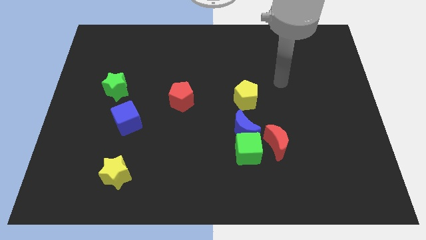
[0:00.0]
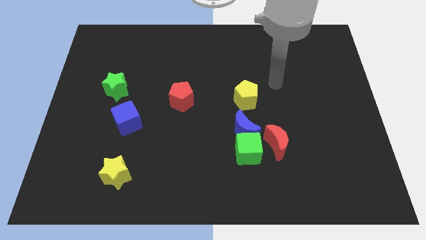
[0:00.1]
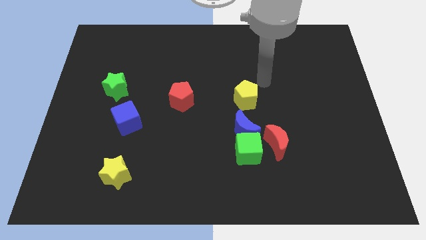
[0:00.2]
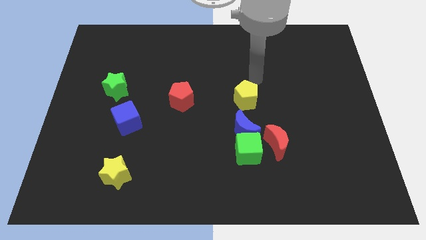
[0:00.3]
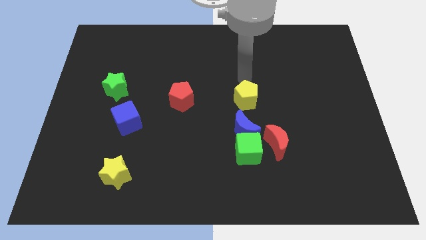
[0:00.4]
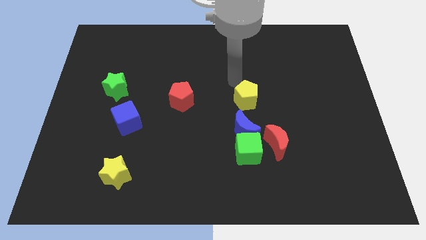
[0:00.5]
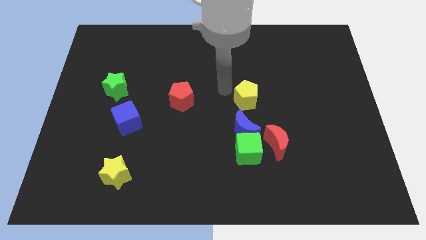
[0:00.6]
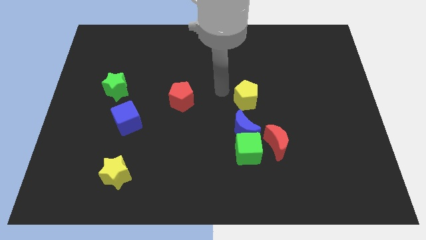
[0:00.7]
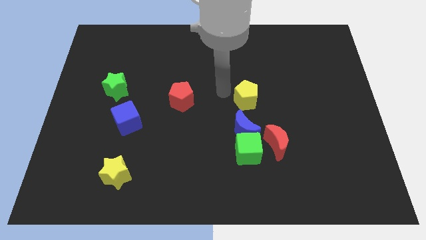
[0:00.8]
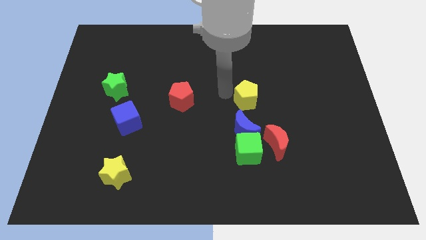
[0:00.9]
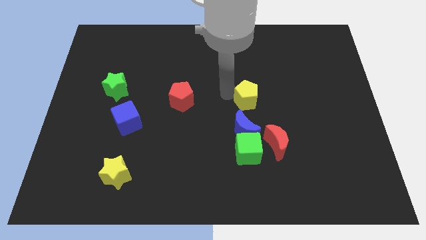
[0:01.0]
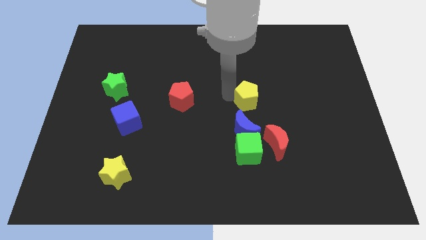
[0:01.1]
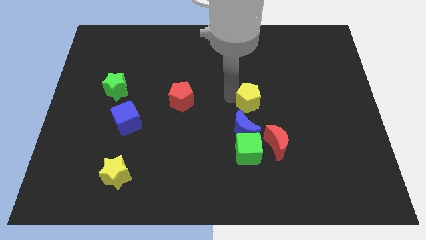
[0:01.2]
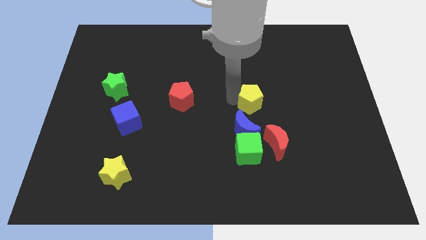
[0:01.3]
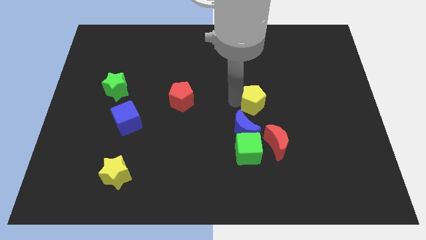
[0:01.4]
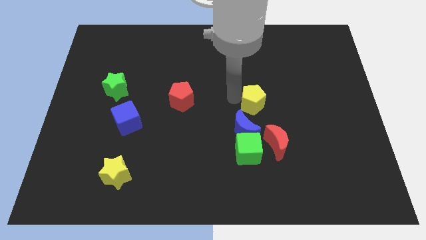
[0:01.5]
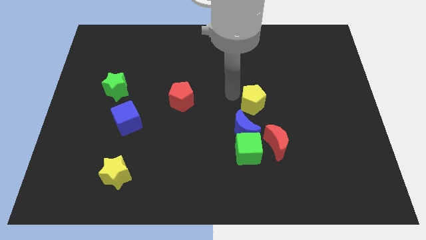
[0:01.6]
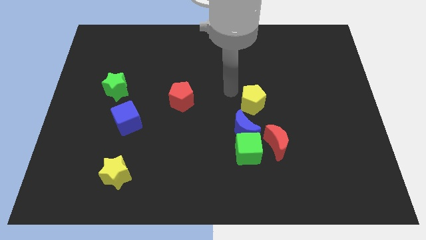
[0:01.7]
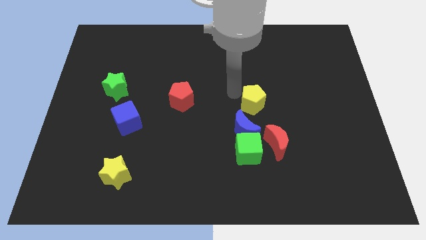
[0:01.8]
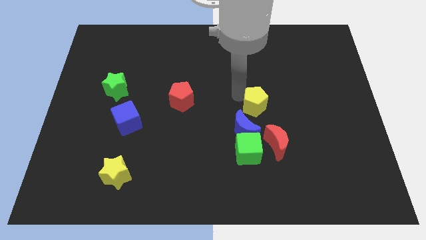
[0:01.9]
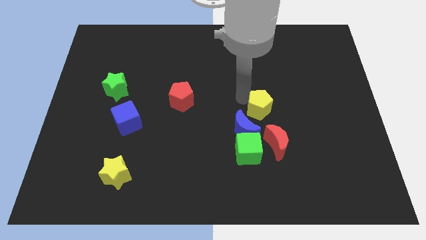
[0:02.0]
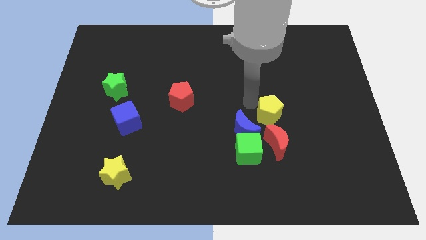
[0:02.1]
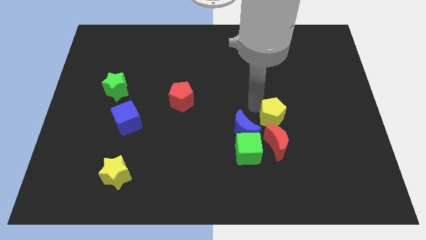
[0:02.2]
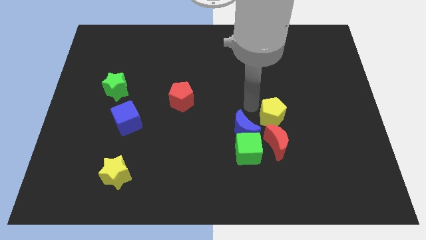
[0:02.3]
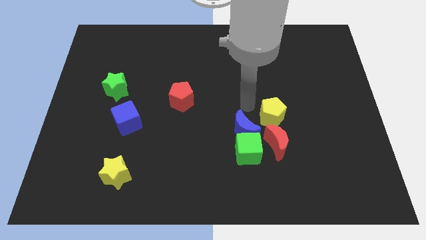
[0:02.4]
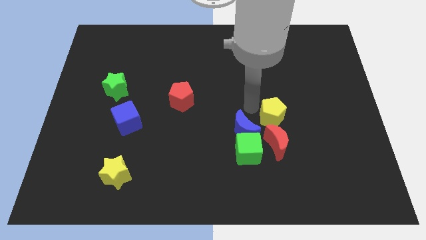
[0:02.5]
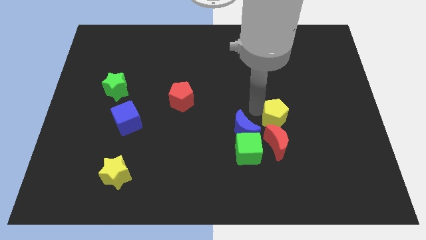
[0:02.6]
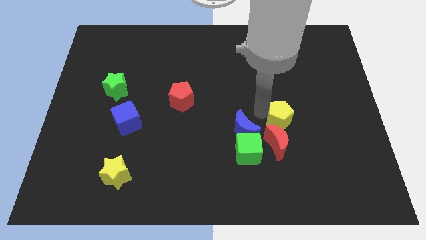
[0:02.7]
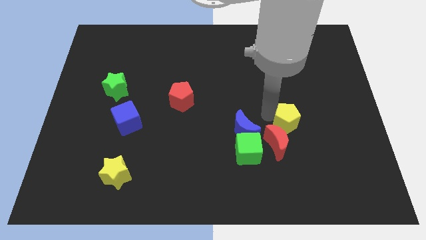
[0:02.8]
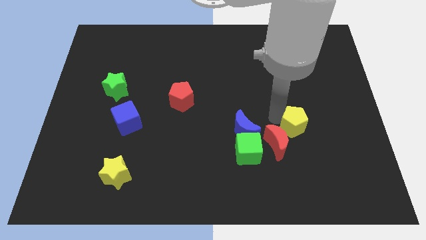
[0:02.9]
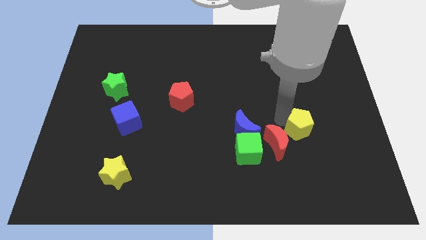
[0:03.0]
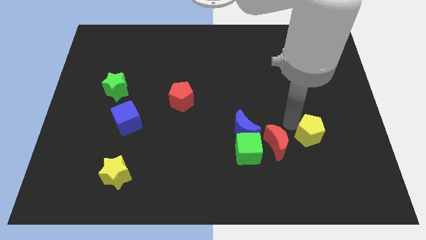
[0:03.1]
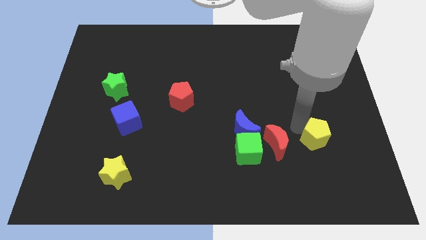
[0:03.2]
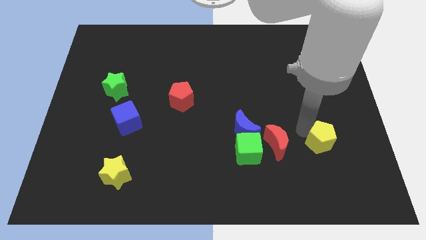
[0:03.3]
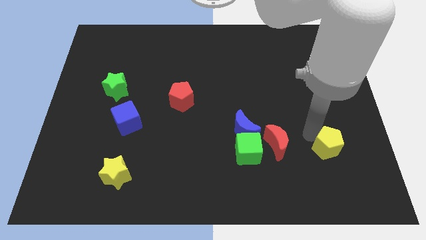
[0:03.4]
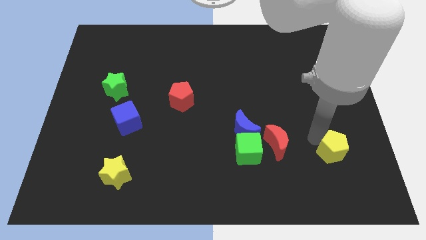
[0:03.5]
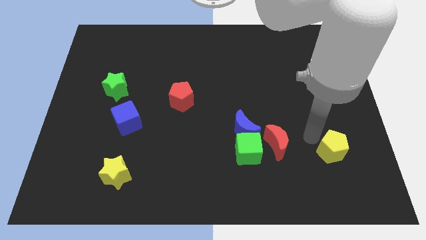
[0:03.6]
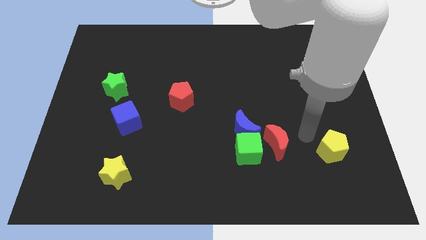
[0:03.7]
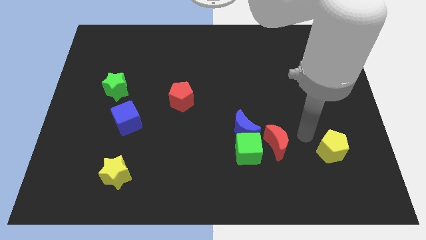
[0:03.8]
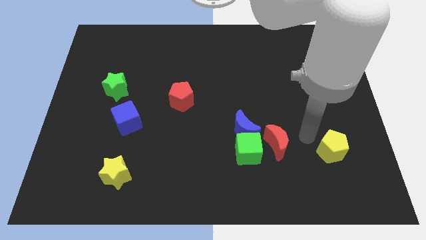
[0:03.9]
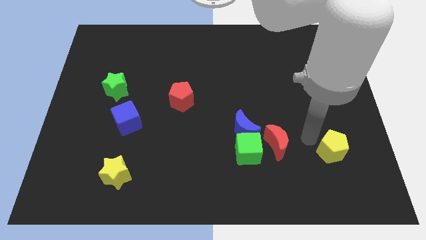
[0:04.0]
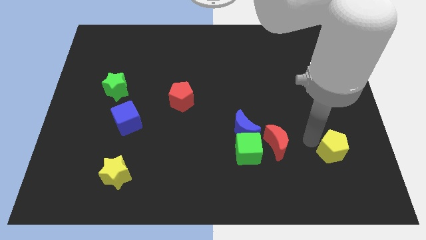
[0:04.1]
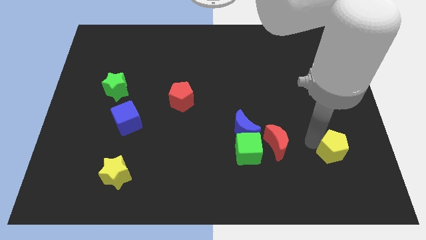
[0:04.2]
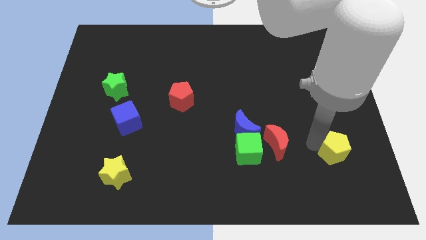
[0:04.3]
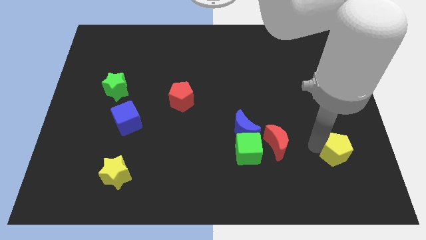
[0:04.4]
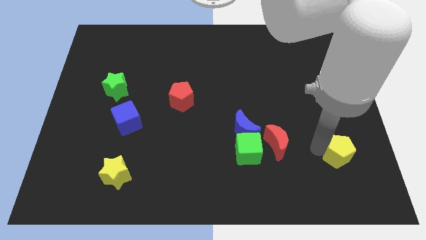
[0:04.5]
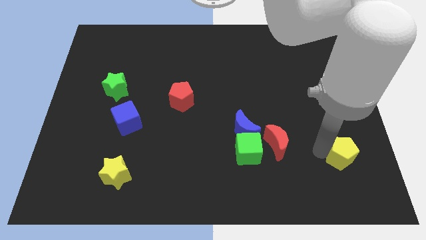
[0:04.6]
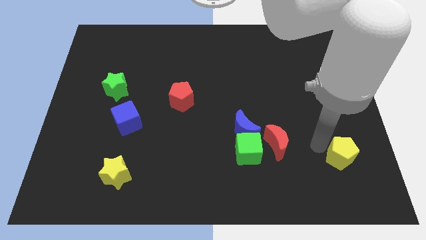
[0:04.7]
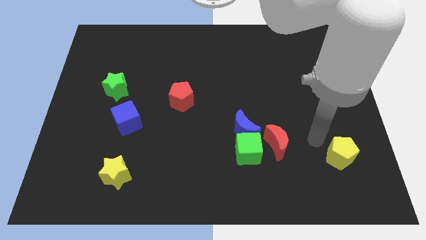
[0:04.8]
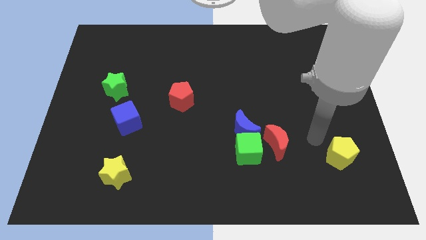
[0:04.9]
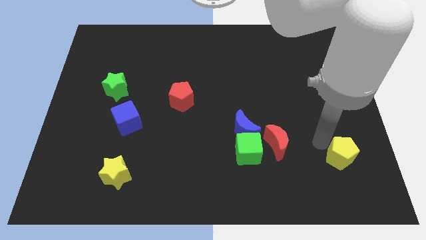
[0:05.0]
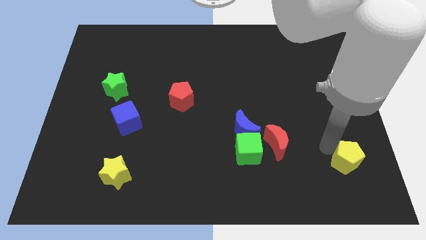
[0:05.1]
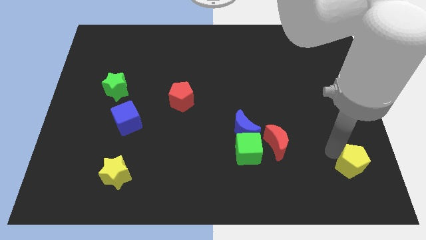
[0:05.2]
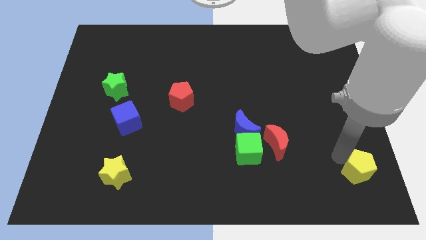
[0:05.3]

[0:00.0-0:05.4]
put the yellow pentagon to the bottom right corner

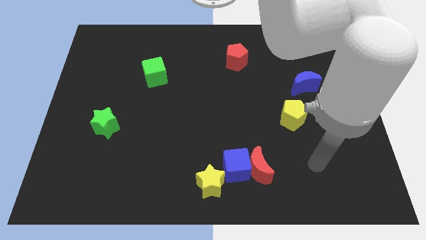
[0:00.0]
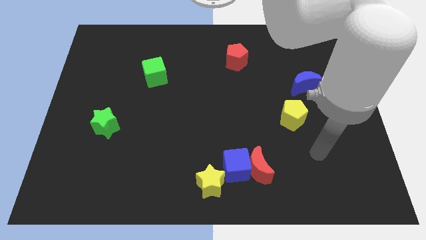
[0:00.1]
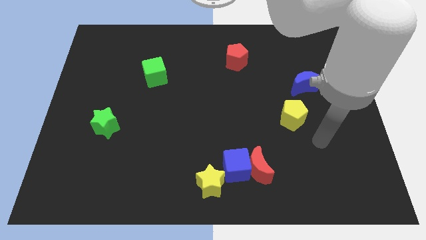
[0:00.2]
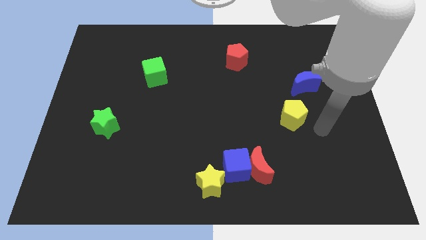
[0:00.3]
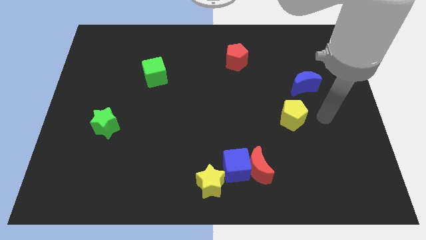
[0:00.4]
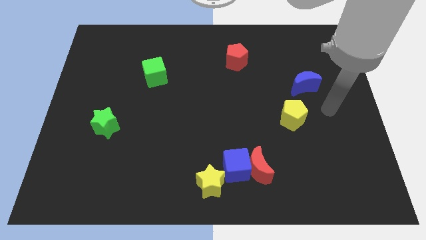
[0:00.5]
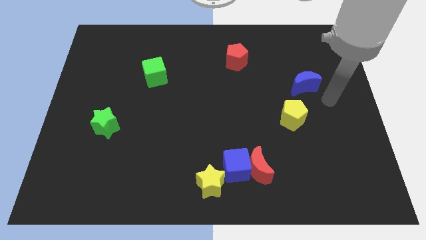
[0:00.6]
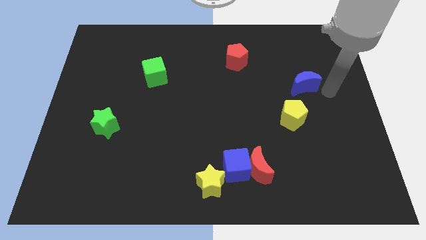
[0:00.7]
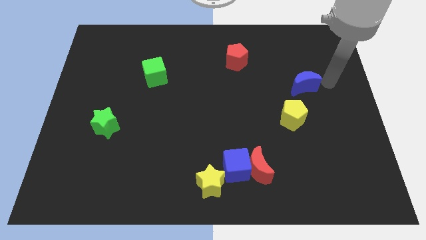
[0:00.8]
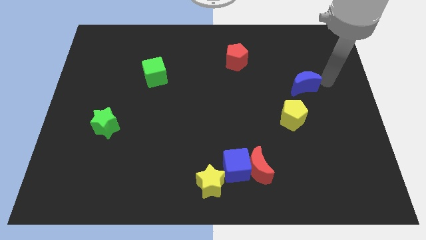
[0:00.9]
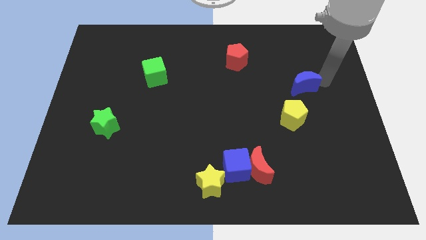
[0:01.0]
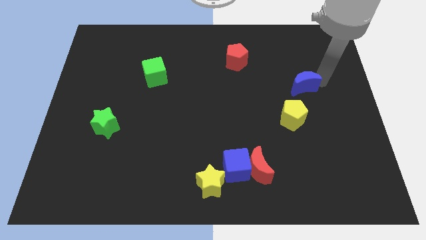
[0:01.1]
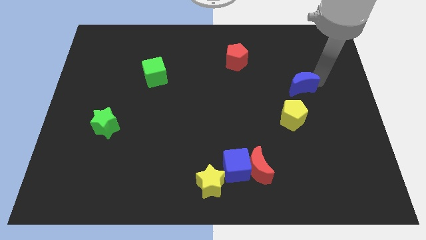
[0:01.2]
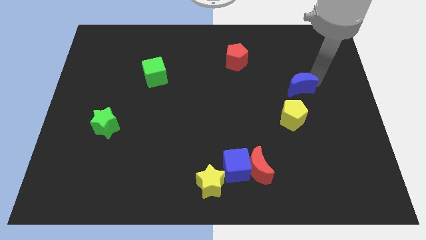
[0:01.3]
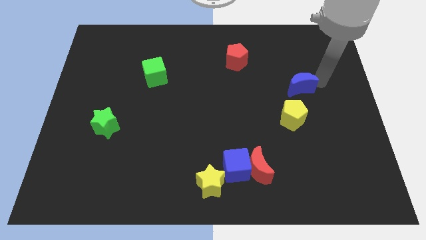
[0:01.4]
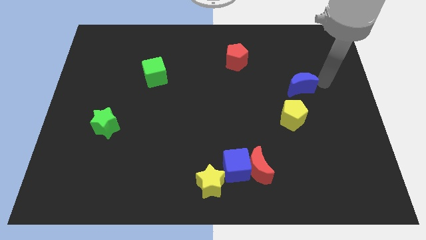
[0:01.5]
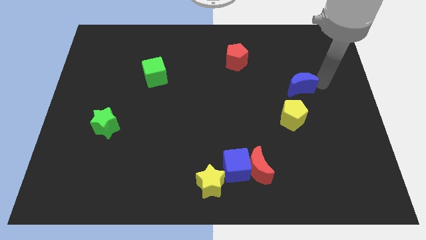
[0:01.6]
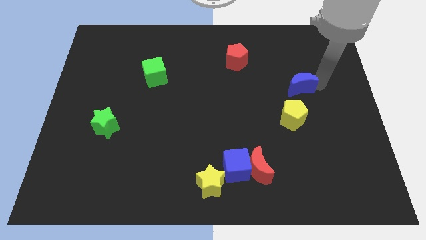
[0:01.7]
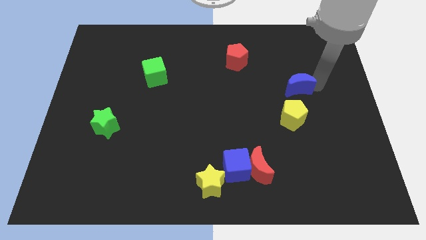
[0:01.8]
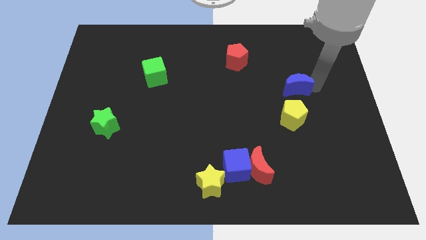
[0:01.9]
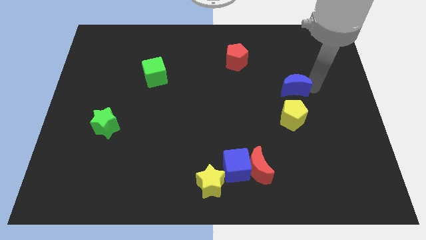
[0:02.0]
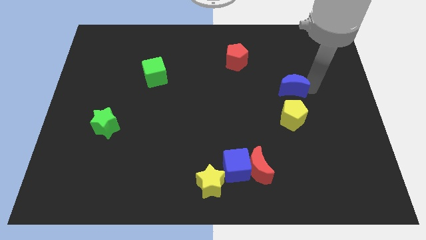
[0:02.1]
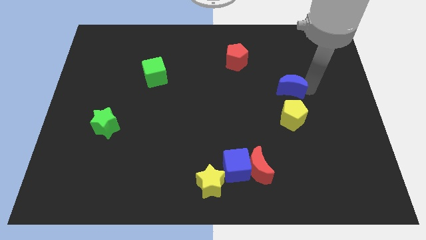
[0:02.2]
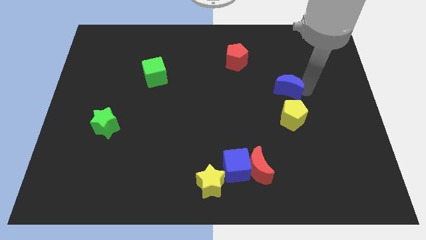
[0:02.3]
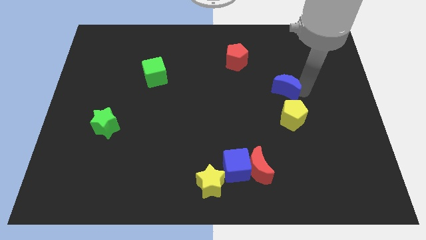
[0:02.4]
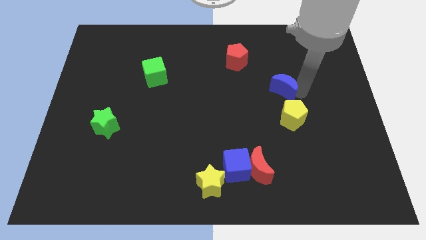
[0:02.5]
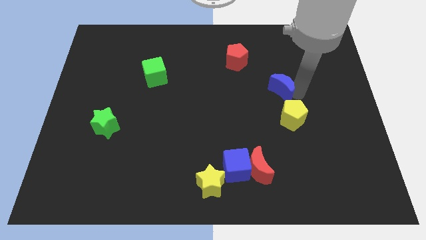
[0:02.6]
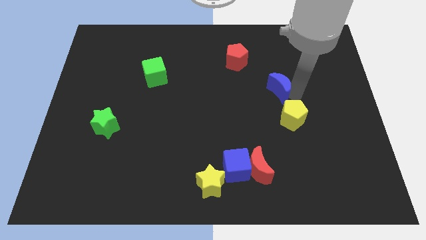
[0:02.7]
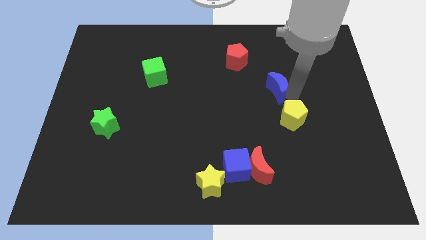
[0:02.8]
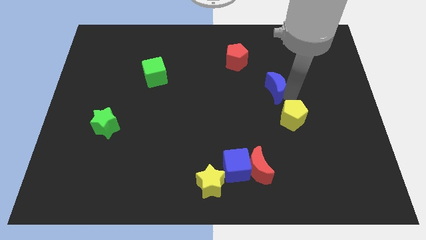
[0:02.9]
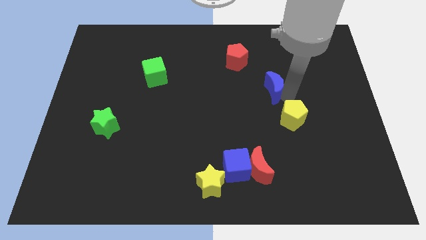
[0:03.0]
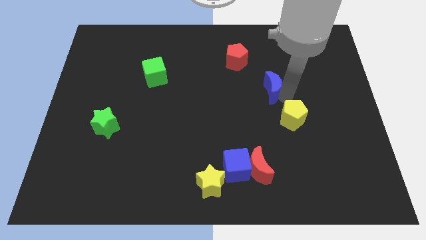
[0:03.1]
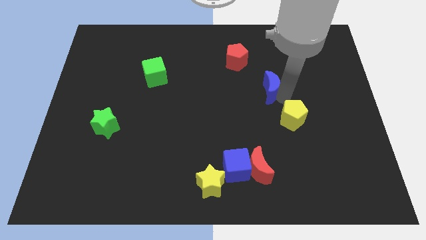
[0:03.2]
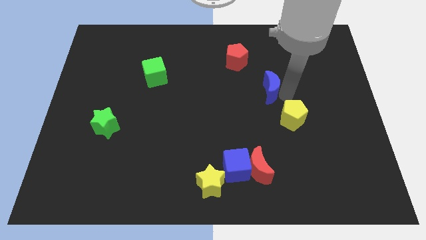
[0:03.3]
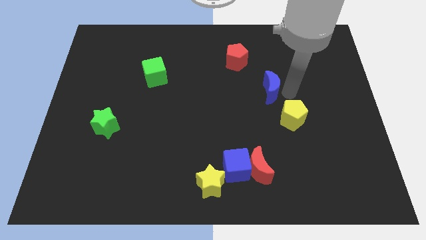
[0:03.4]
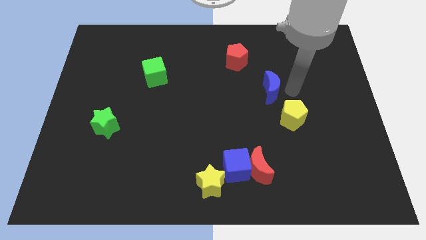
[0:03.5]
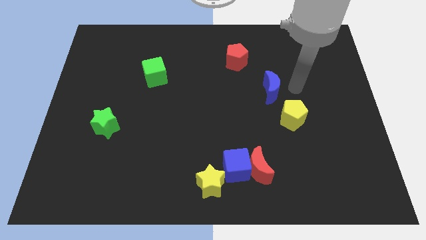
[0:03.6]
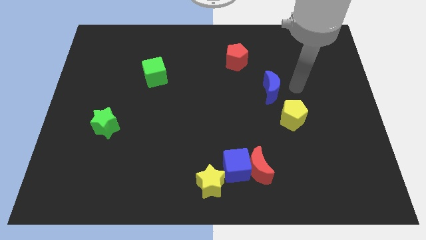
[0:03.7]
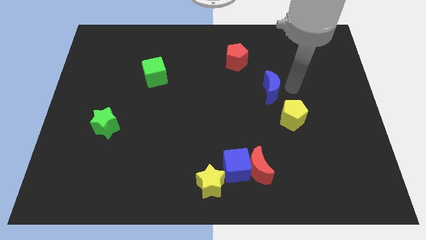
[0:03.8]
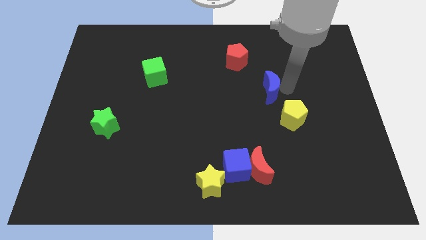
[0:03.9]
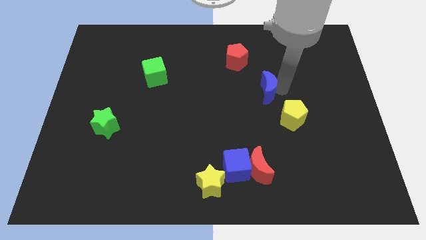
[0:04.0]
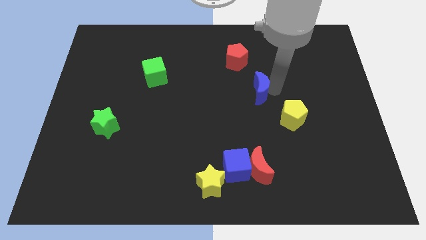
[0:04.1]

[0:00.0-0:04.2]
push the blue moon to the center
